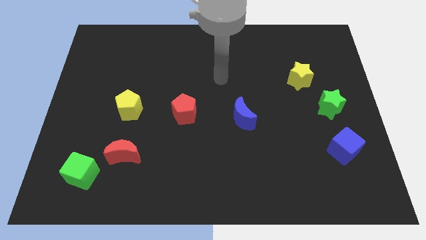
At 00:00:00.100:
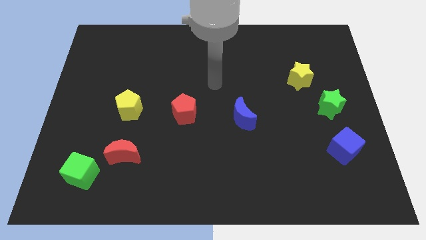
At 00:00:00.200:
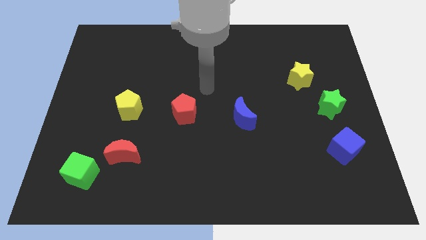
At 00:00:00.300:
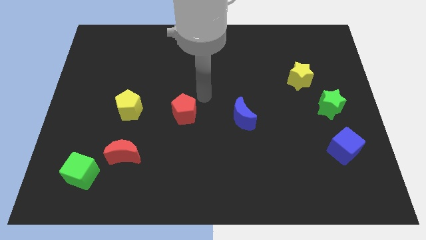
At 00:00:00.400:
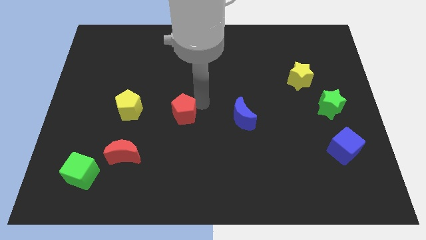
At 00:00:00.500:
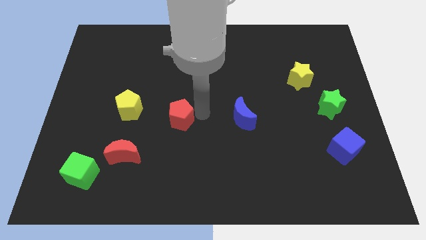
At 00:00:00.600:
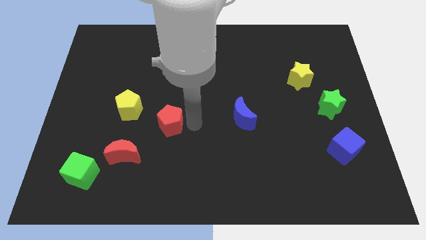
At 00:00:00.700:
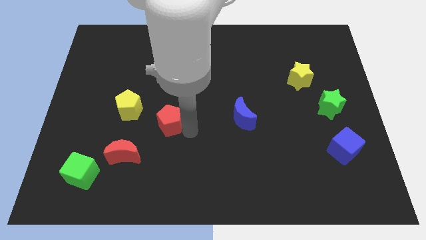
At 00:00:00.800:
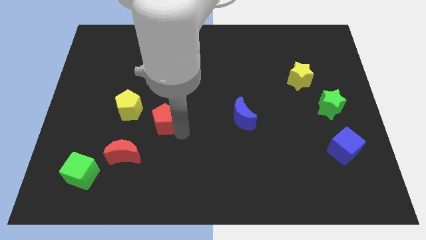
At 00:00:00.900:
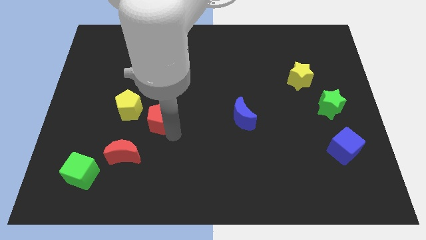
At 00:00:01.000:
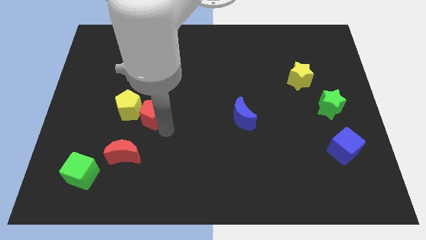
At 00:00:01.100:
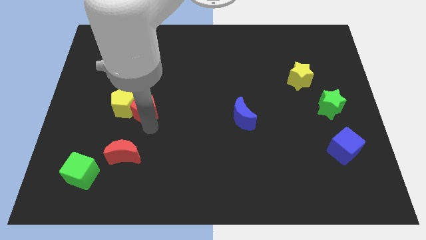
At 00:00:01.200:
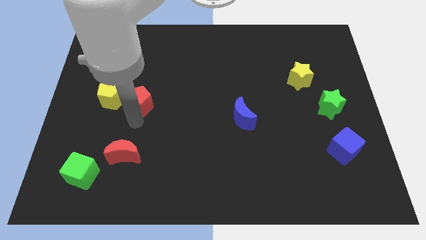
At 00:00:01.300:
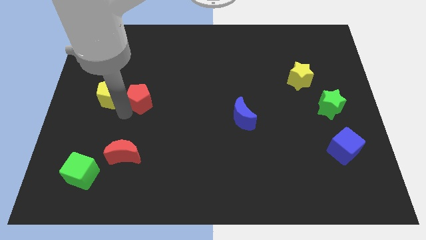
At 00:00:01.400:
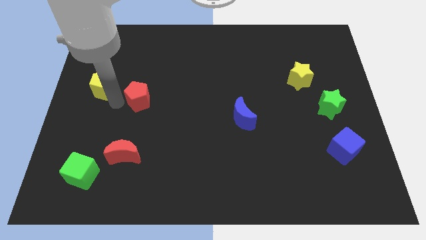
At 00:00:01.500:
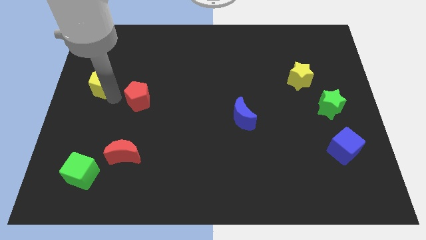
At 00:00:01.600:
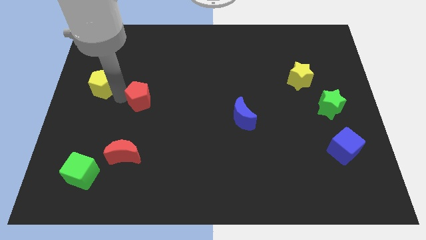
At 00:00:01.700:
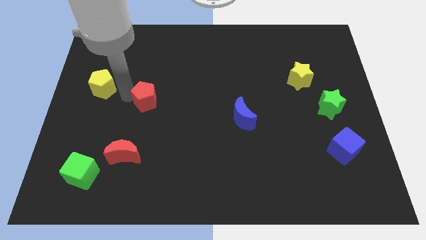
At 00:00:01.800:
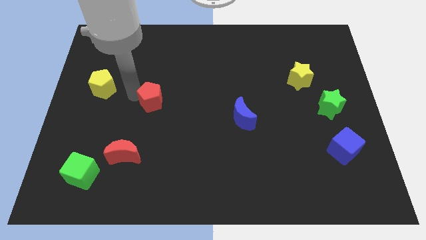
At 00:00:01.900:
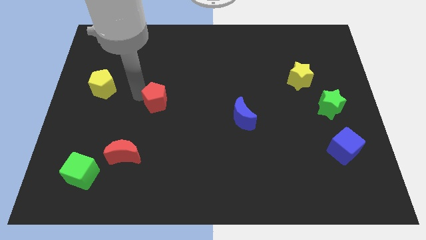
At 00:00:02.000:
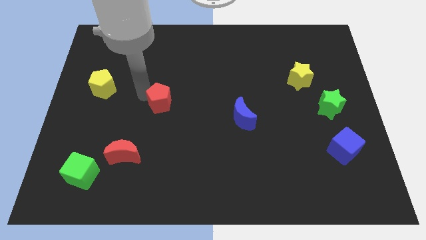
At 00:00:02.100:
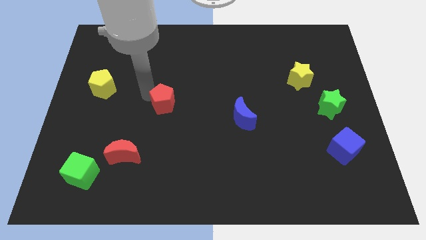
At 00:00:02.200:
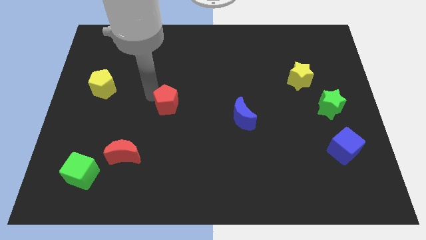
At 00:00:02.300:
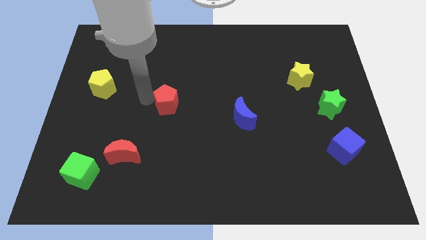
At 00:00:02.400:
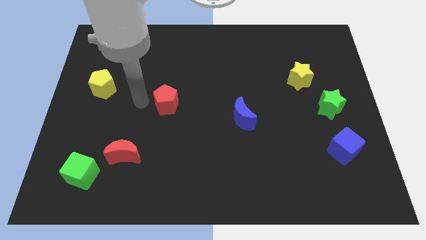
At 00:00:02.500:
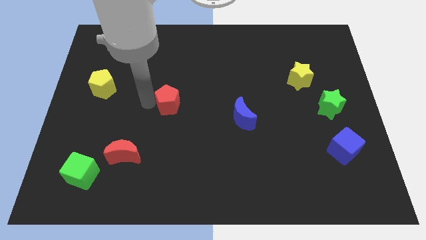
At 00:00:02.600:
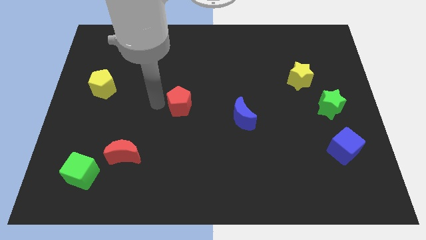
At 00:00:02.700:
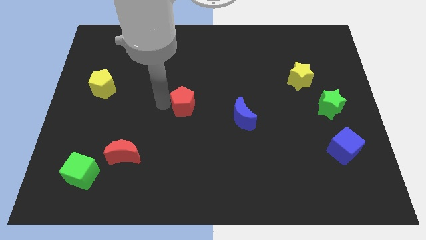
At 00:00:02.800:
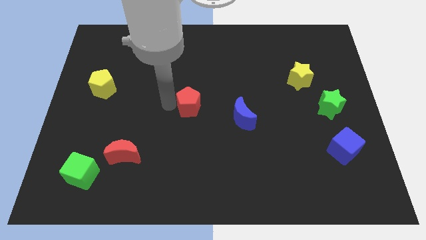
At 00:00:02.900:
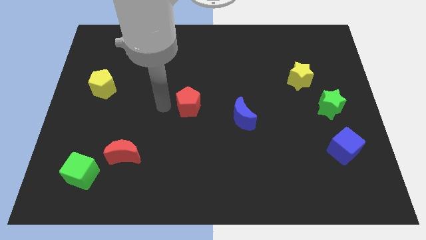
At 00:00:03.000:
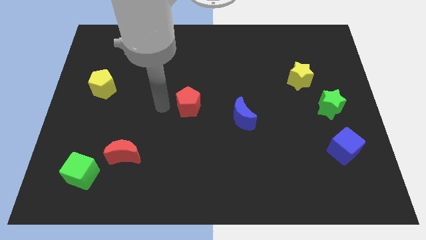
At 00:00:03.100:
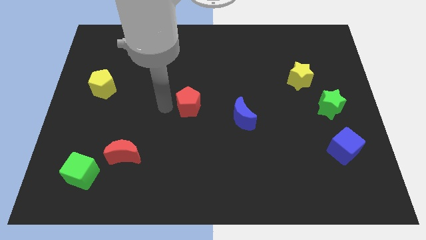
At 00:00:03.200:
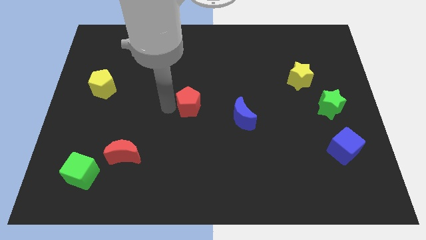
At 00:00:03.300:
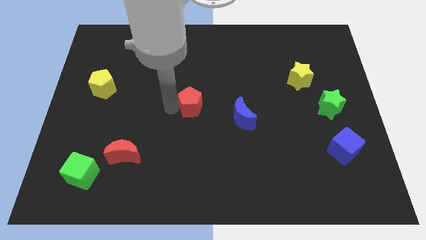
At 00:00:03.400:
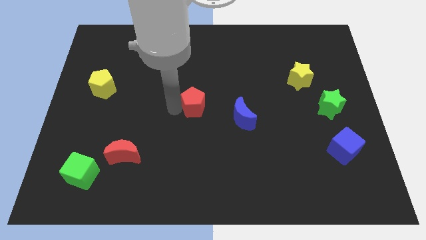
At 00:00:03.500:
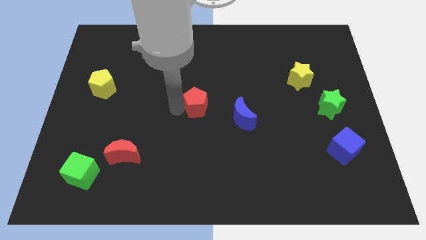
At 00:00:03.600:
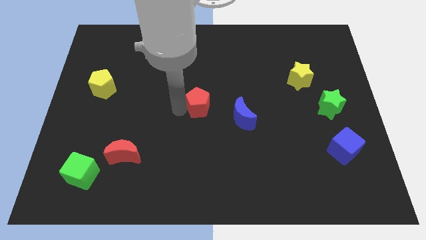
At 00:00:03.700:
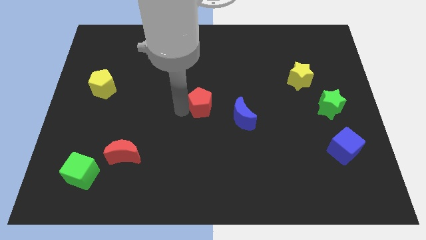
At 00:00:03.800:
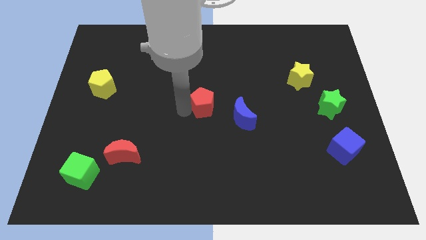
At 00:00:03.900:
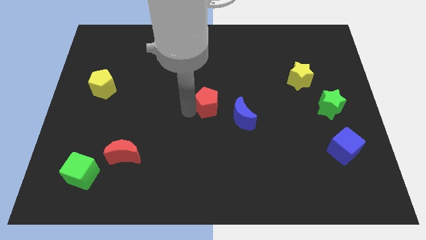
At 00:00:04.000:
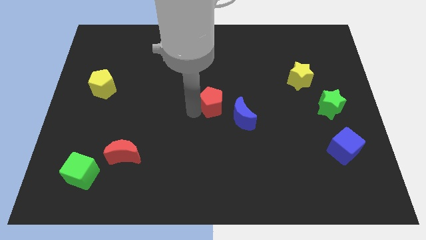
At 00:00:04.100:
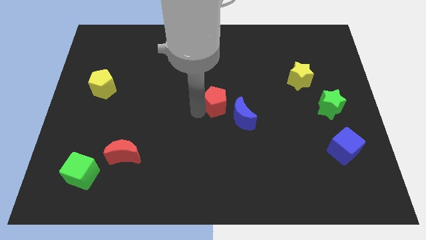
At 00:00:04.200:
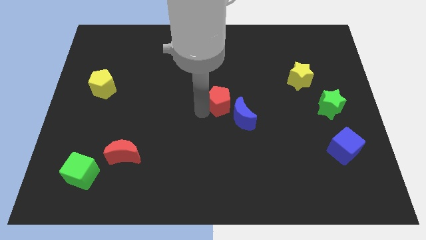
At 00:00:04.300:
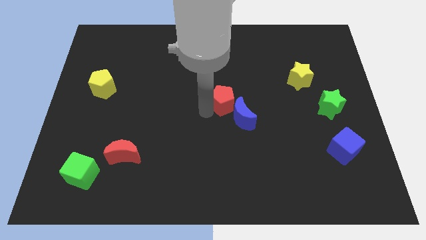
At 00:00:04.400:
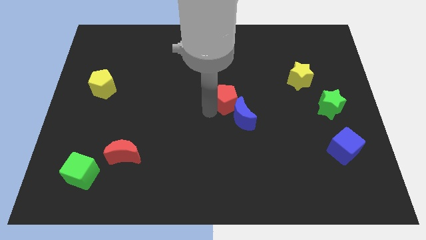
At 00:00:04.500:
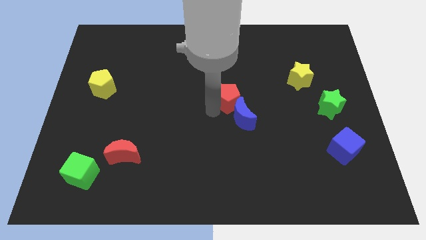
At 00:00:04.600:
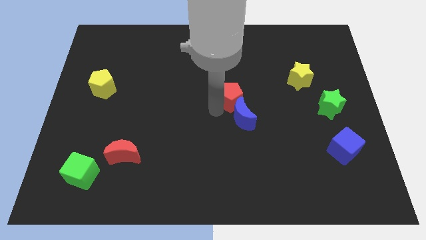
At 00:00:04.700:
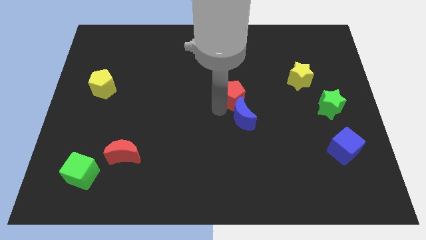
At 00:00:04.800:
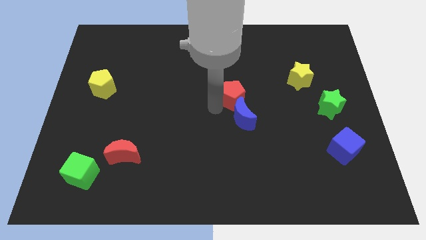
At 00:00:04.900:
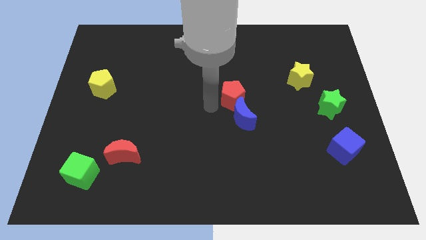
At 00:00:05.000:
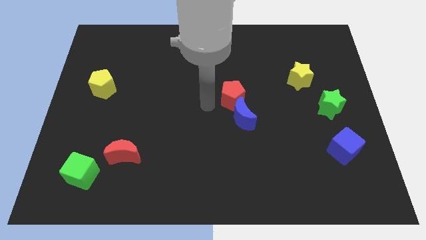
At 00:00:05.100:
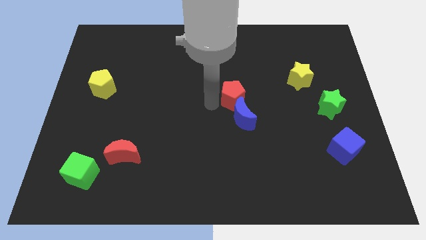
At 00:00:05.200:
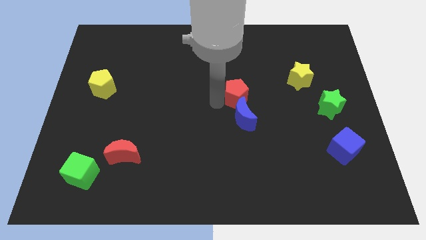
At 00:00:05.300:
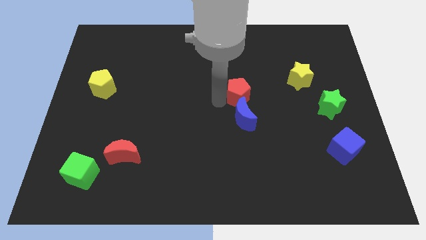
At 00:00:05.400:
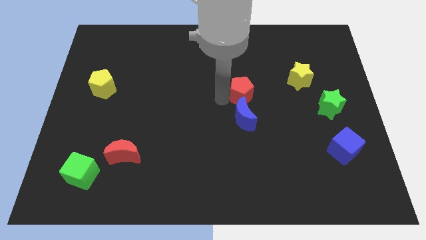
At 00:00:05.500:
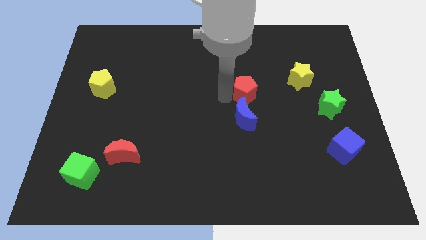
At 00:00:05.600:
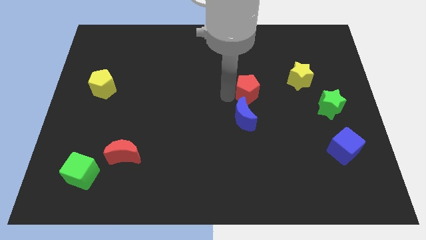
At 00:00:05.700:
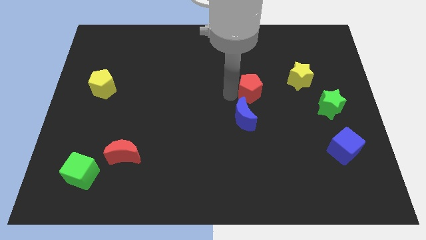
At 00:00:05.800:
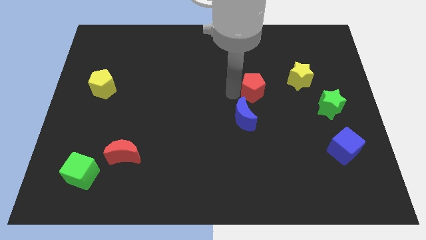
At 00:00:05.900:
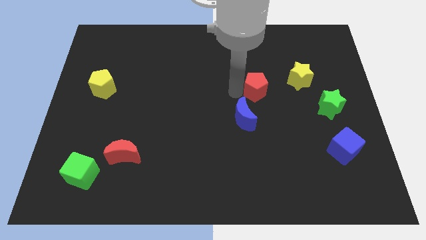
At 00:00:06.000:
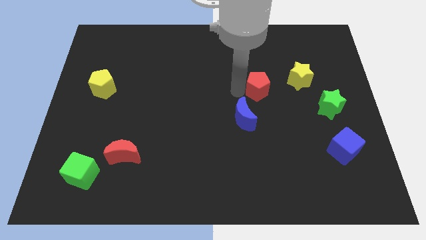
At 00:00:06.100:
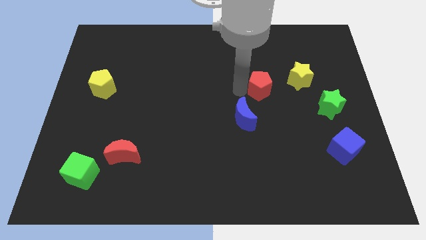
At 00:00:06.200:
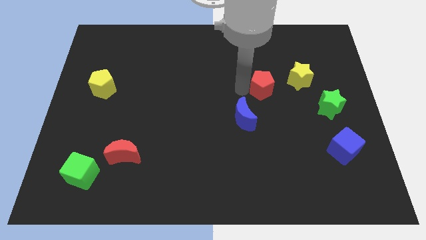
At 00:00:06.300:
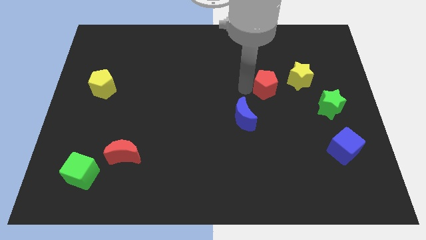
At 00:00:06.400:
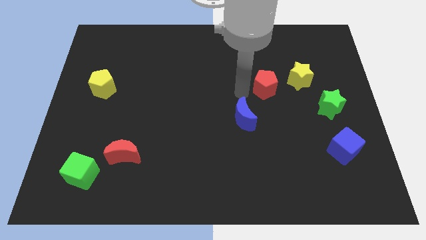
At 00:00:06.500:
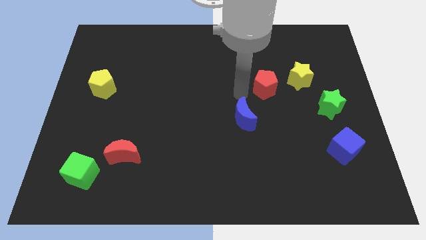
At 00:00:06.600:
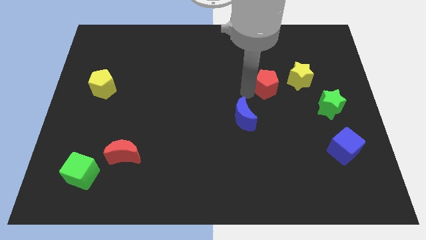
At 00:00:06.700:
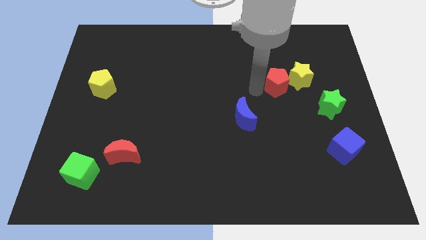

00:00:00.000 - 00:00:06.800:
slide the red pentagon towards the yellow star
